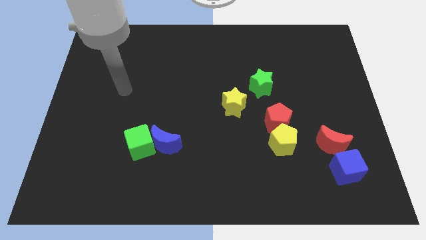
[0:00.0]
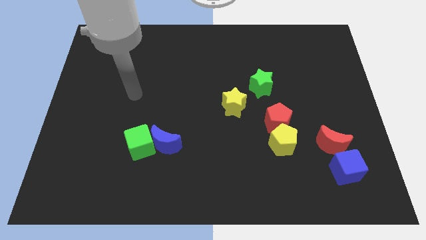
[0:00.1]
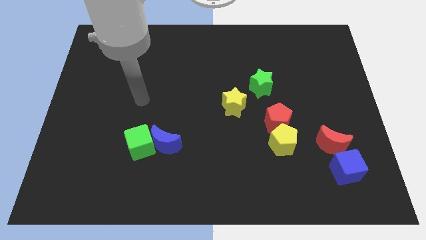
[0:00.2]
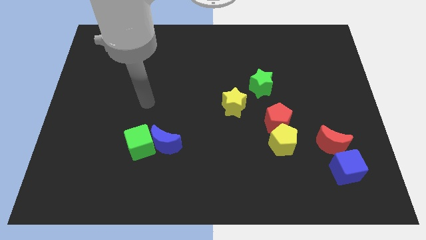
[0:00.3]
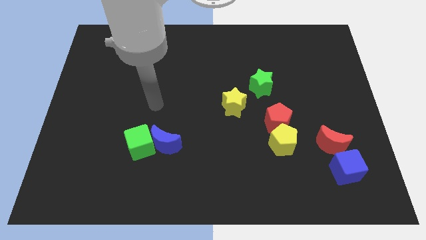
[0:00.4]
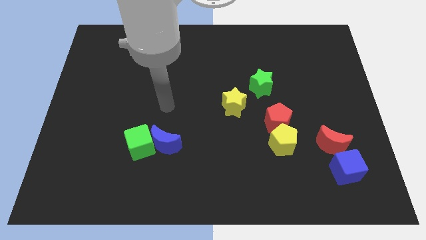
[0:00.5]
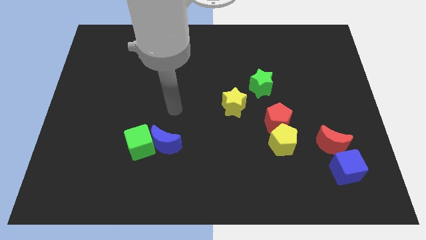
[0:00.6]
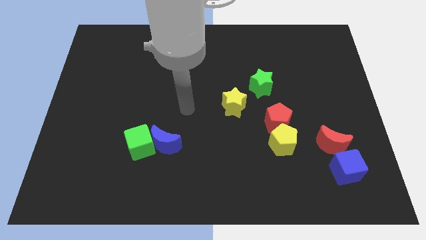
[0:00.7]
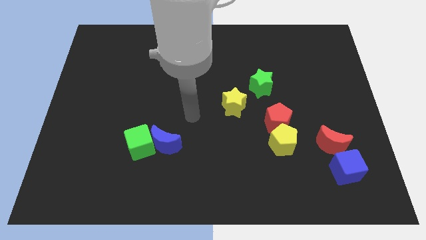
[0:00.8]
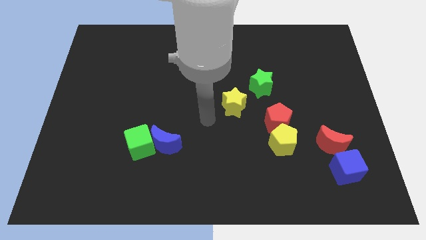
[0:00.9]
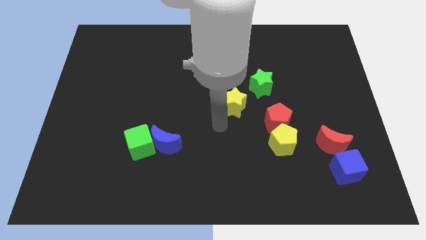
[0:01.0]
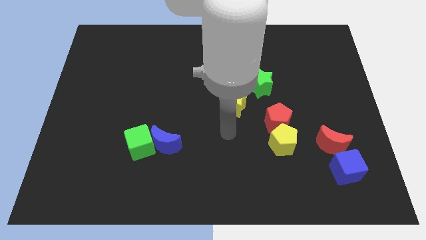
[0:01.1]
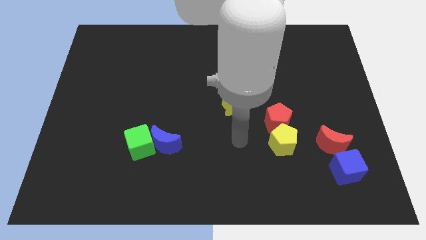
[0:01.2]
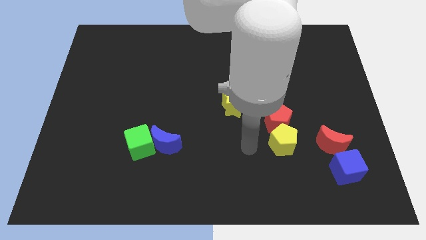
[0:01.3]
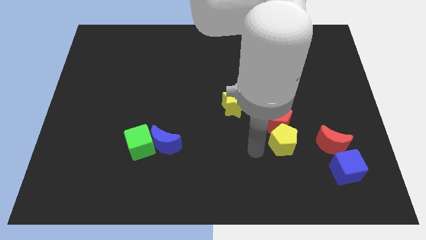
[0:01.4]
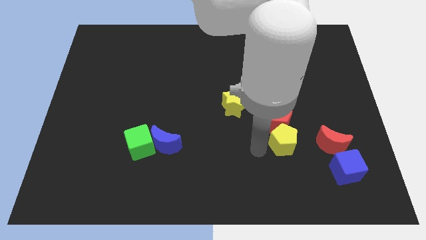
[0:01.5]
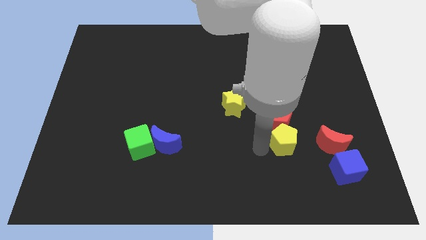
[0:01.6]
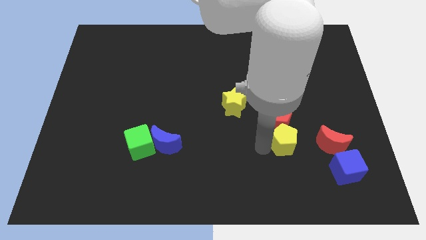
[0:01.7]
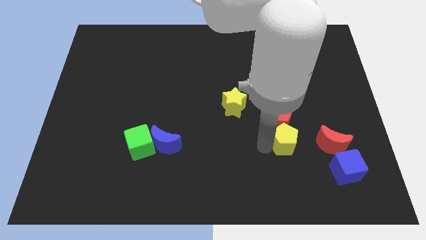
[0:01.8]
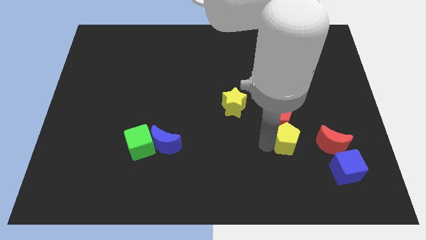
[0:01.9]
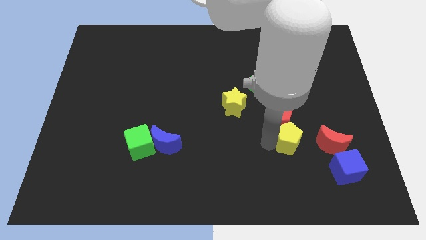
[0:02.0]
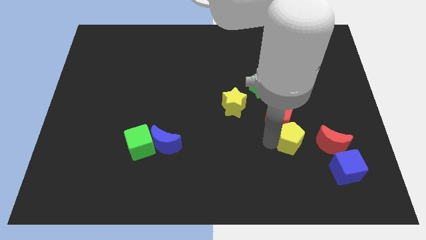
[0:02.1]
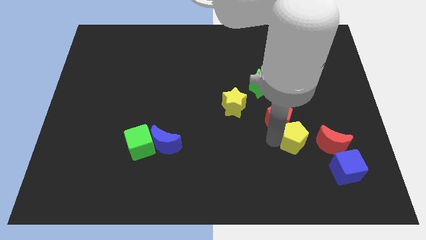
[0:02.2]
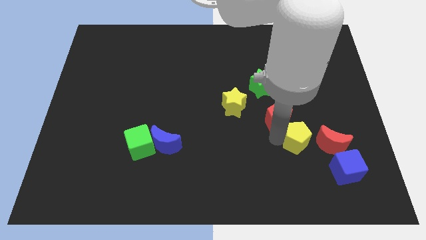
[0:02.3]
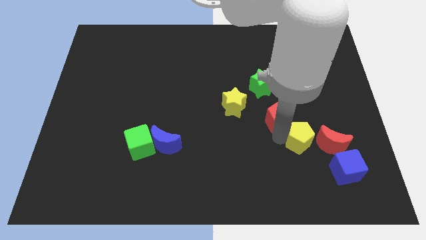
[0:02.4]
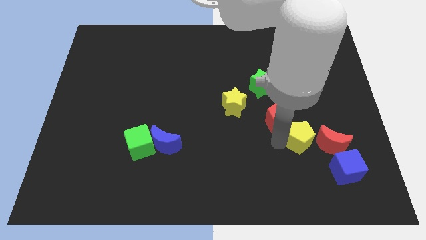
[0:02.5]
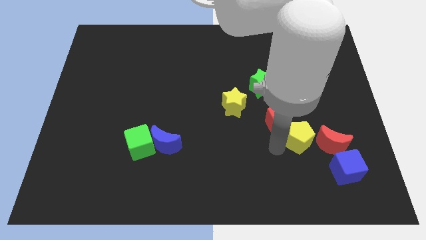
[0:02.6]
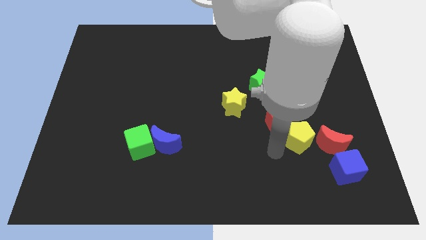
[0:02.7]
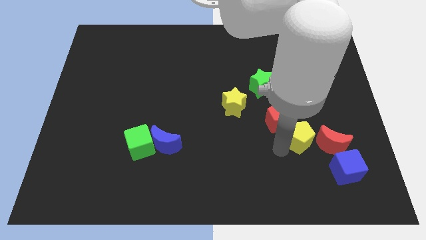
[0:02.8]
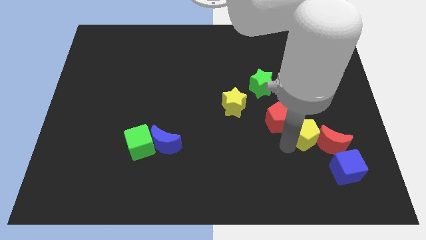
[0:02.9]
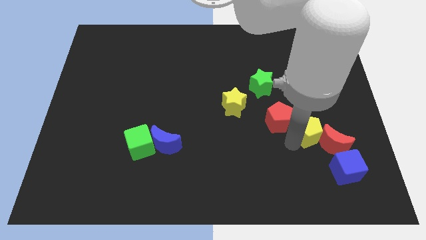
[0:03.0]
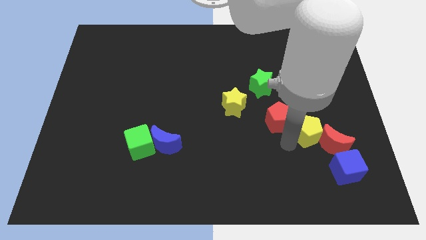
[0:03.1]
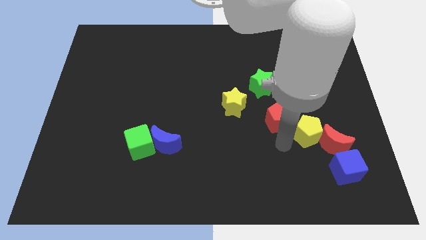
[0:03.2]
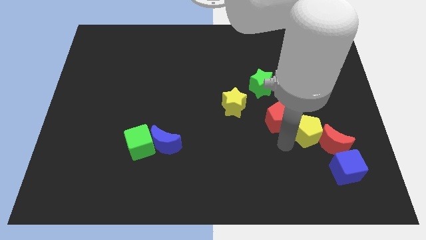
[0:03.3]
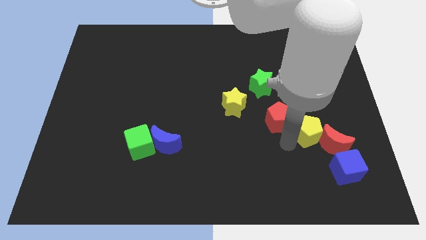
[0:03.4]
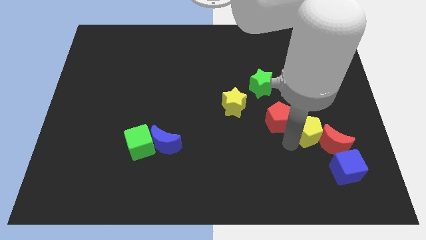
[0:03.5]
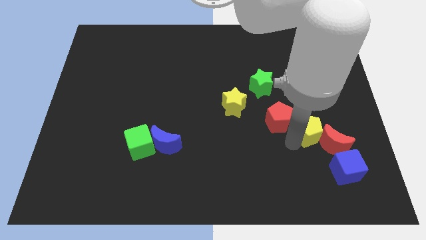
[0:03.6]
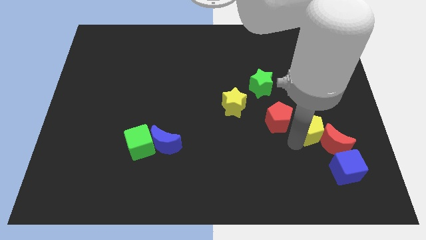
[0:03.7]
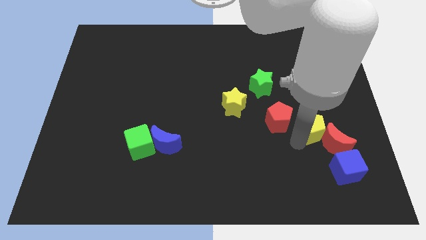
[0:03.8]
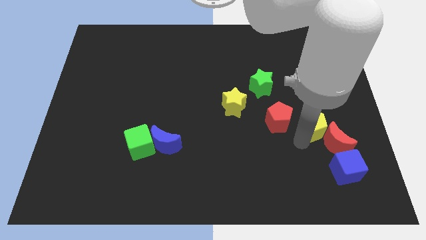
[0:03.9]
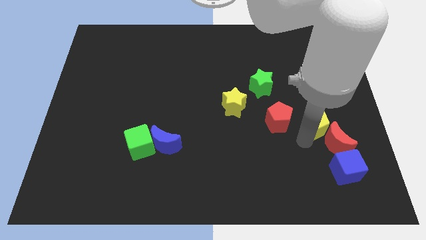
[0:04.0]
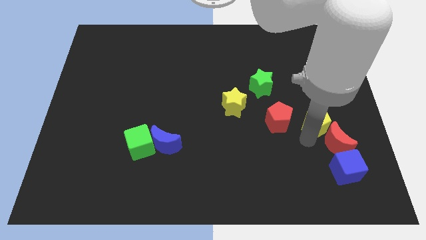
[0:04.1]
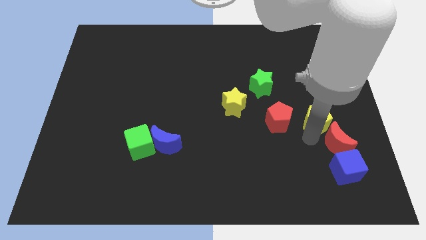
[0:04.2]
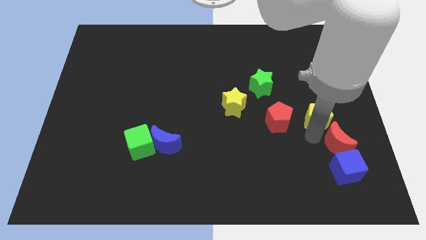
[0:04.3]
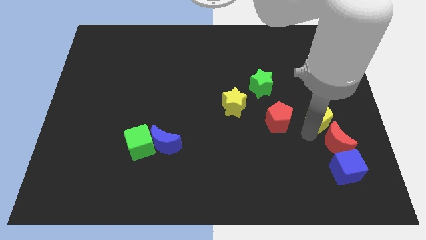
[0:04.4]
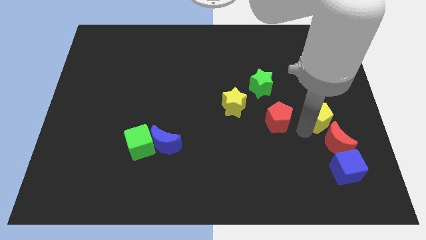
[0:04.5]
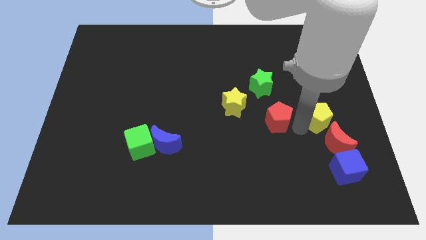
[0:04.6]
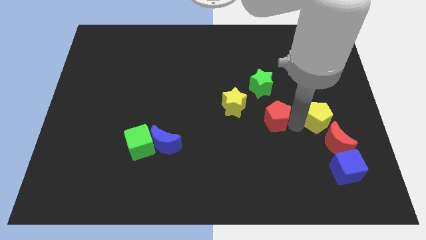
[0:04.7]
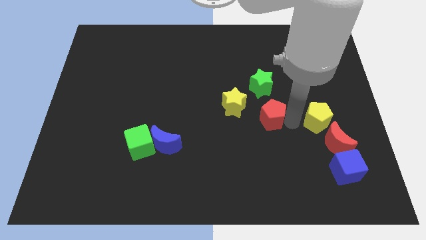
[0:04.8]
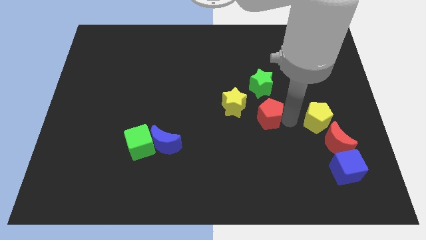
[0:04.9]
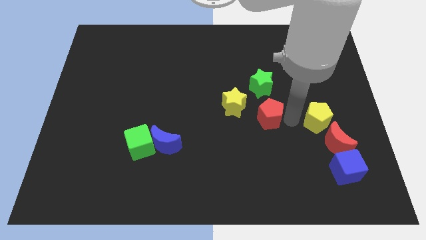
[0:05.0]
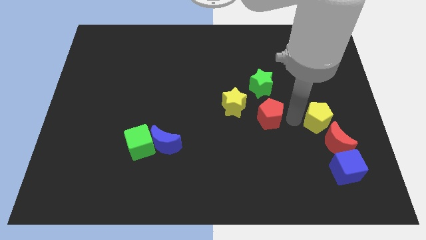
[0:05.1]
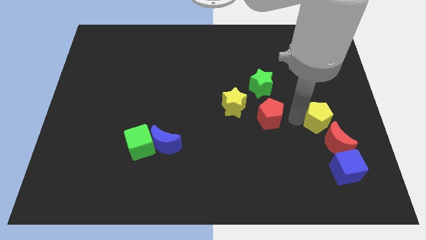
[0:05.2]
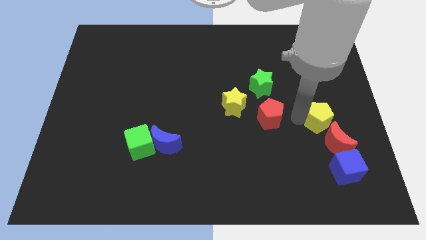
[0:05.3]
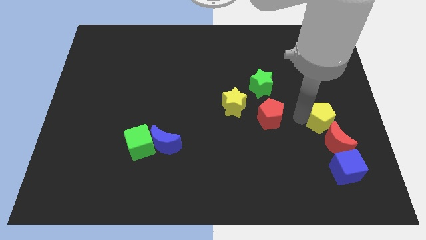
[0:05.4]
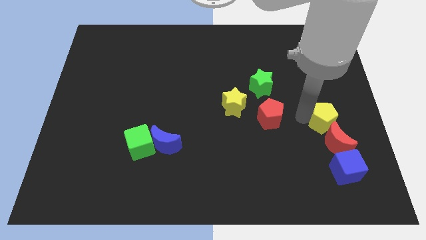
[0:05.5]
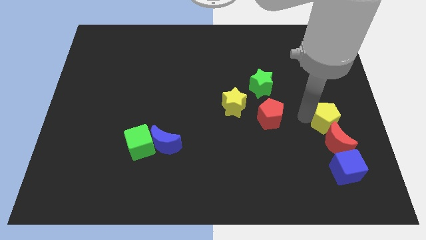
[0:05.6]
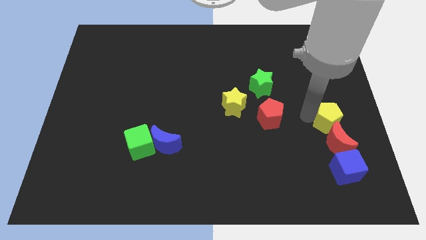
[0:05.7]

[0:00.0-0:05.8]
move the yellow pentagon to the center right
